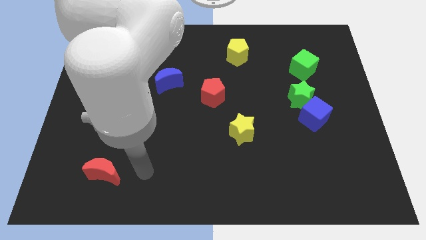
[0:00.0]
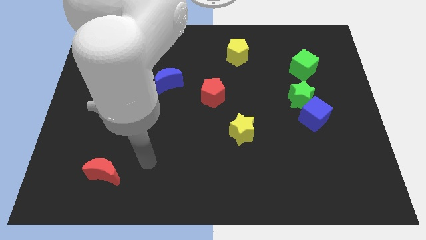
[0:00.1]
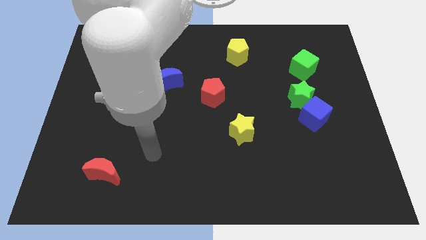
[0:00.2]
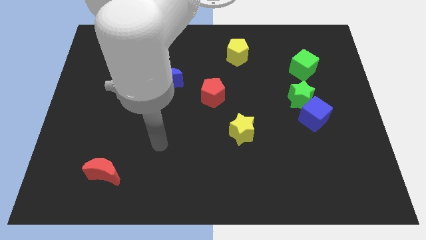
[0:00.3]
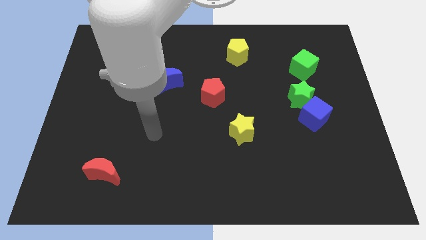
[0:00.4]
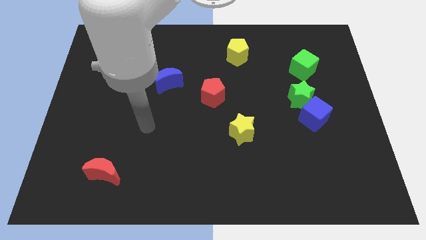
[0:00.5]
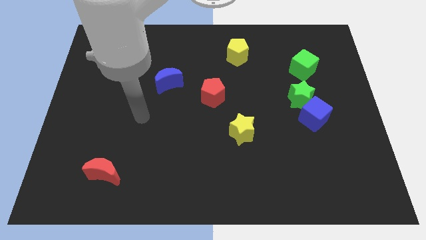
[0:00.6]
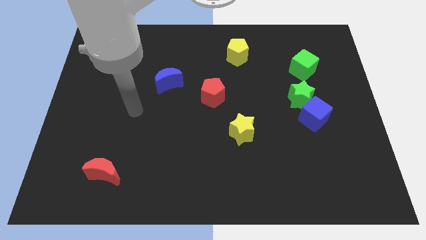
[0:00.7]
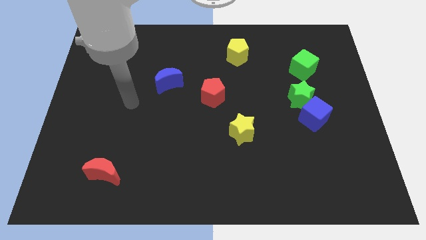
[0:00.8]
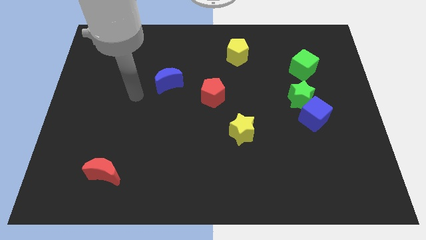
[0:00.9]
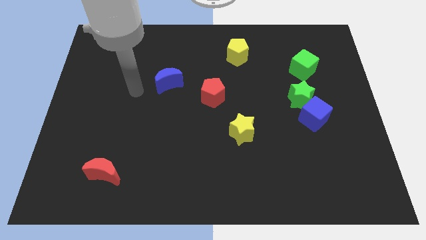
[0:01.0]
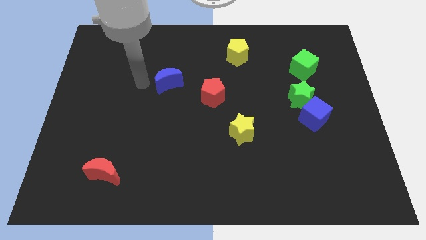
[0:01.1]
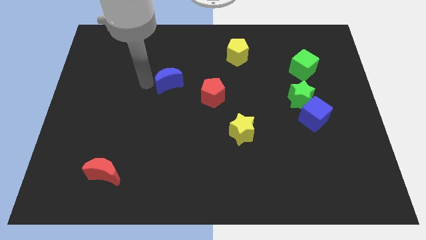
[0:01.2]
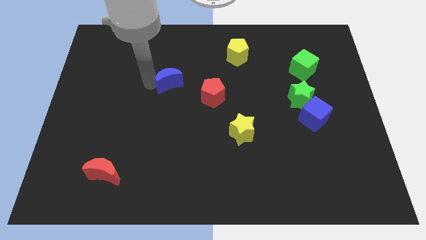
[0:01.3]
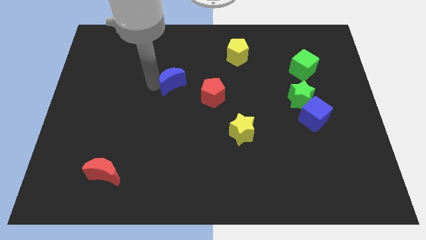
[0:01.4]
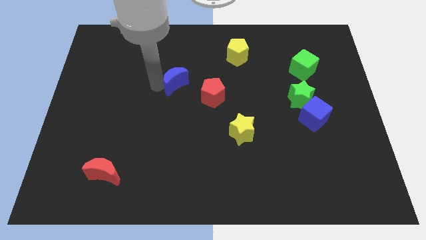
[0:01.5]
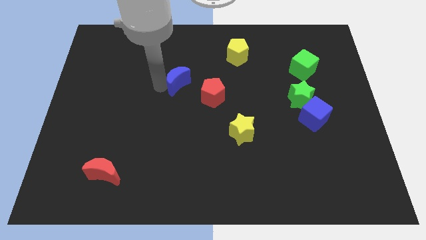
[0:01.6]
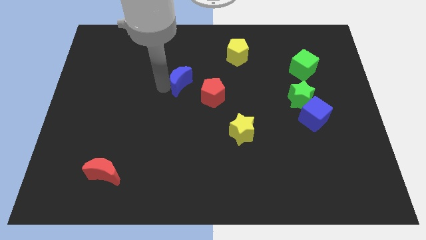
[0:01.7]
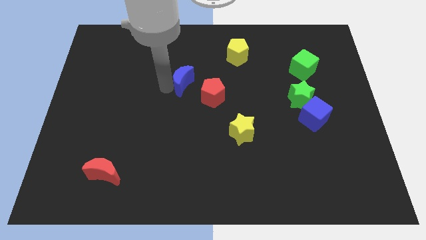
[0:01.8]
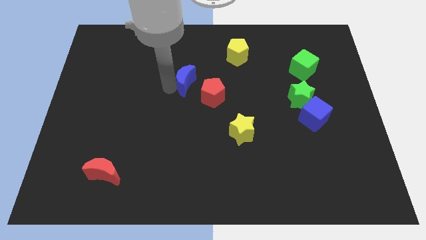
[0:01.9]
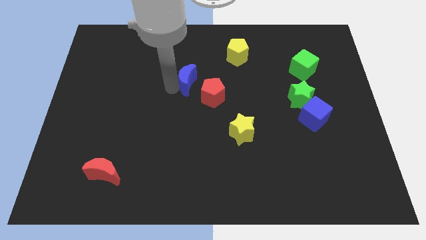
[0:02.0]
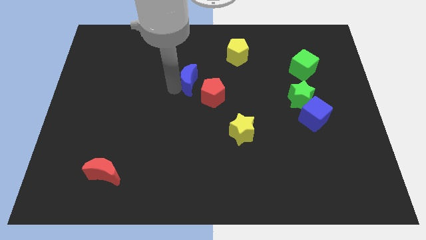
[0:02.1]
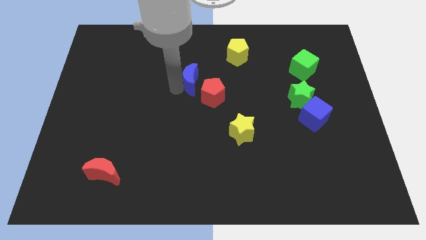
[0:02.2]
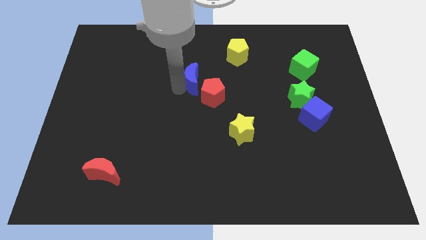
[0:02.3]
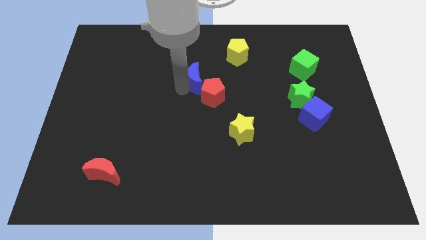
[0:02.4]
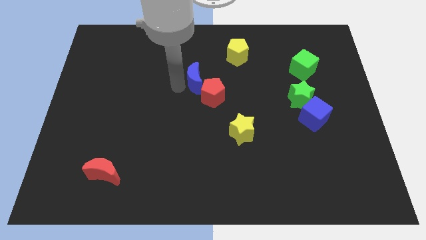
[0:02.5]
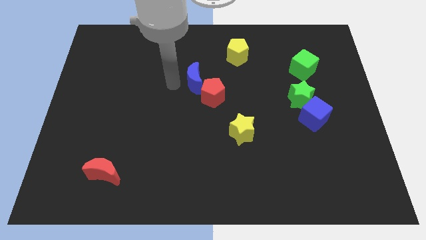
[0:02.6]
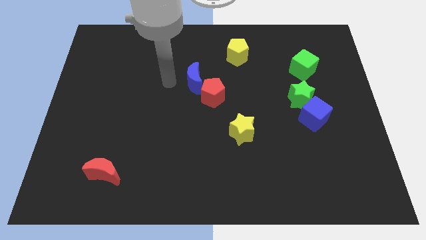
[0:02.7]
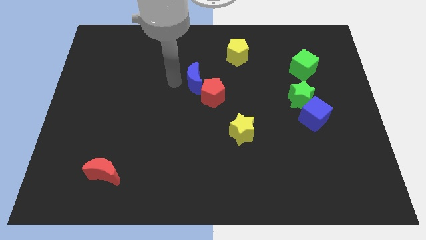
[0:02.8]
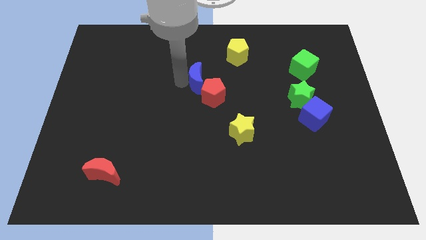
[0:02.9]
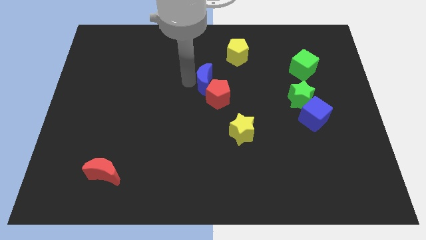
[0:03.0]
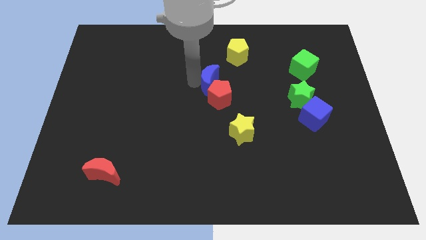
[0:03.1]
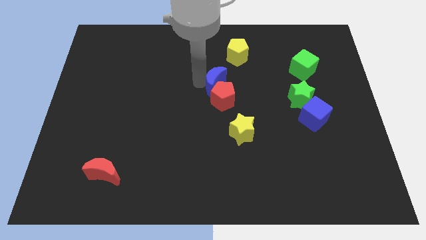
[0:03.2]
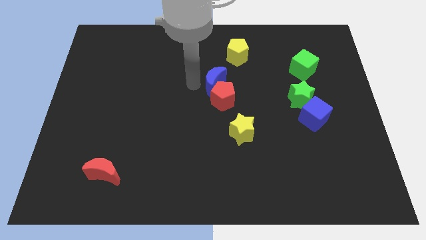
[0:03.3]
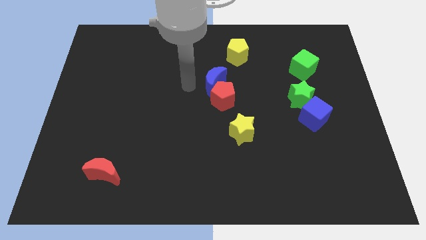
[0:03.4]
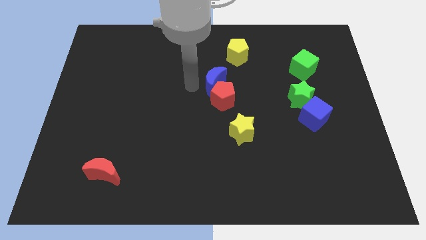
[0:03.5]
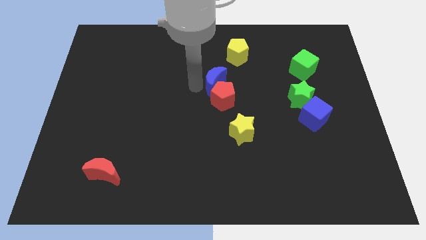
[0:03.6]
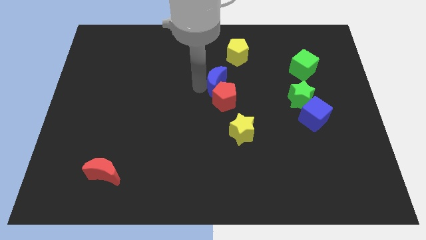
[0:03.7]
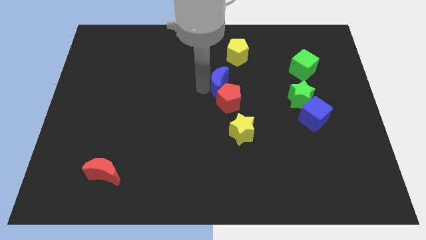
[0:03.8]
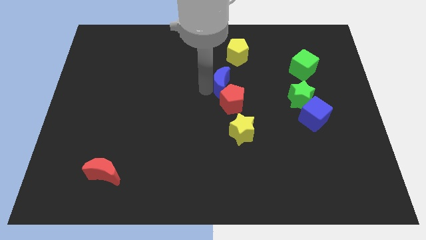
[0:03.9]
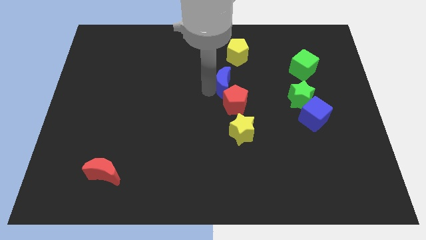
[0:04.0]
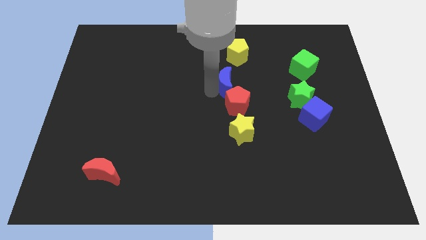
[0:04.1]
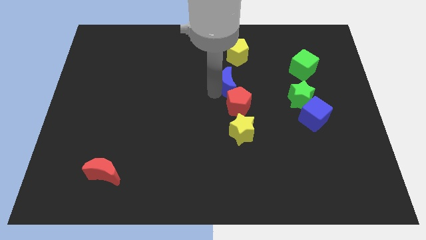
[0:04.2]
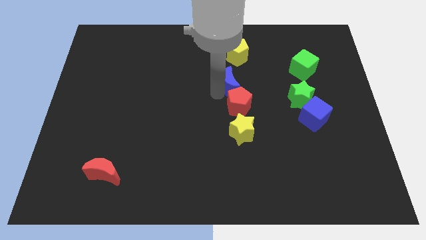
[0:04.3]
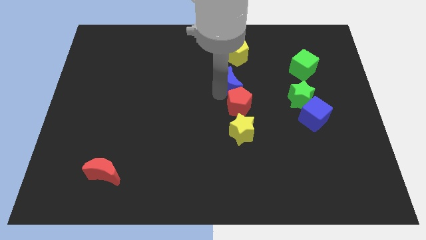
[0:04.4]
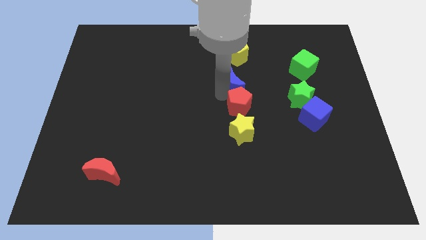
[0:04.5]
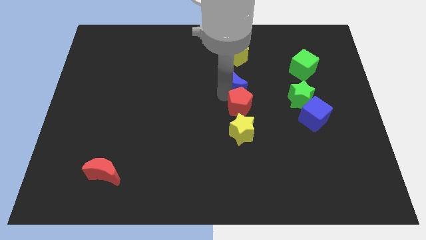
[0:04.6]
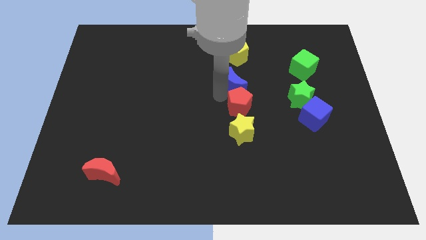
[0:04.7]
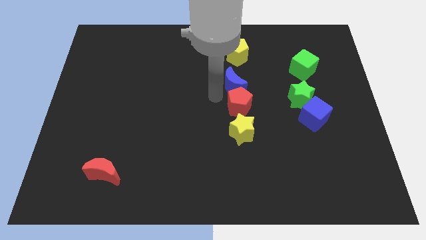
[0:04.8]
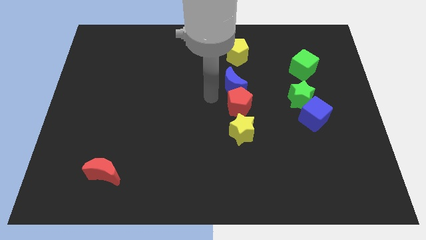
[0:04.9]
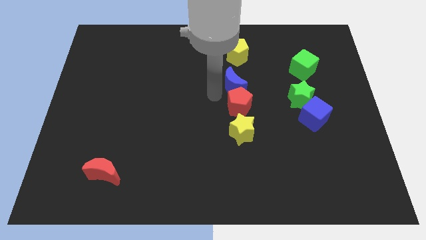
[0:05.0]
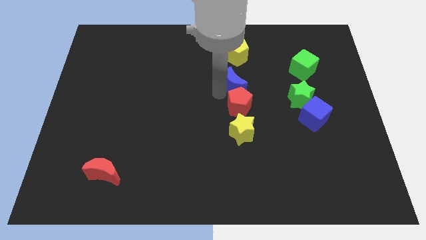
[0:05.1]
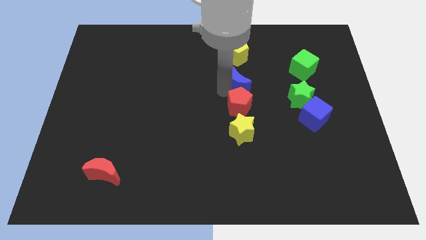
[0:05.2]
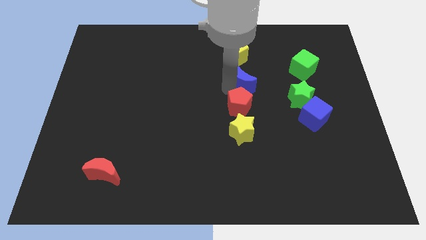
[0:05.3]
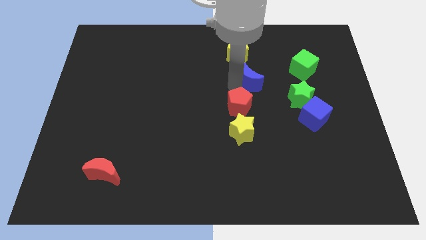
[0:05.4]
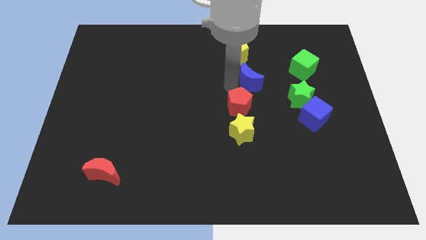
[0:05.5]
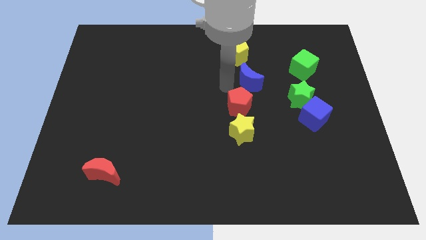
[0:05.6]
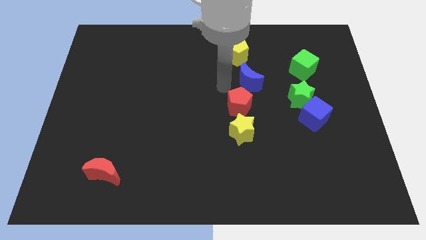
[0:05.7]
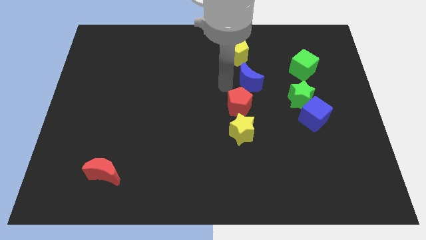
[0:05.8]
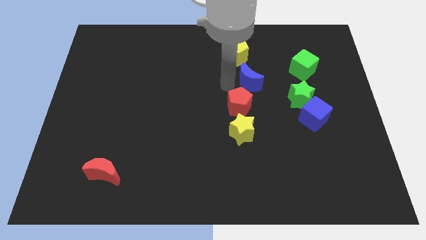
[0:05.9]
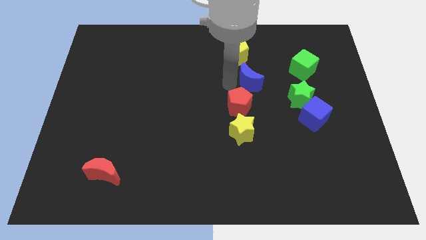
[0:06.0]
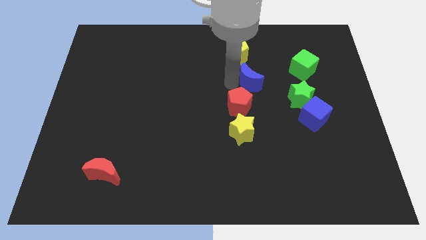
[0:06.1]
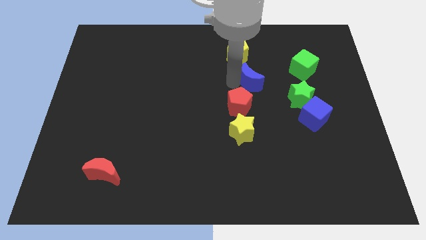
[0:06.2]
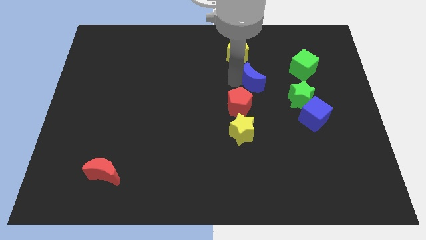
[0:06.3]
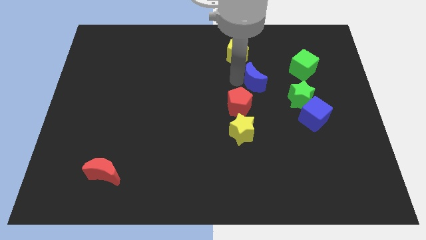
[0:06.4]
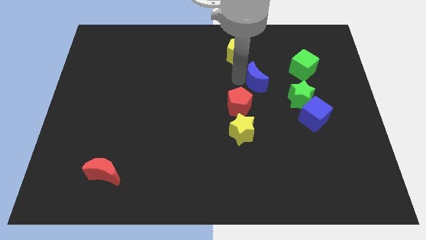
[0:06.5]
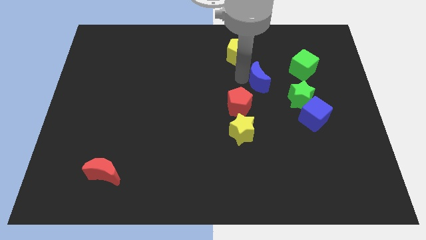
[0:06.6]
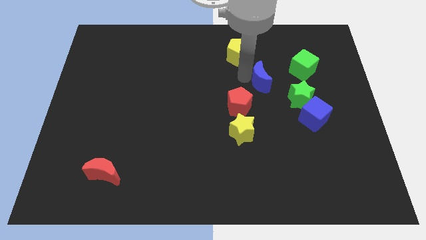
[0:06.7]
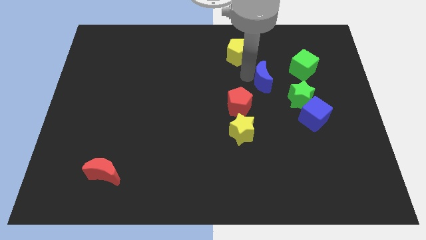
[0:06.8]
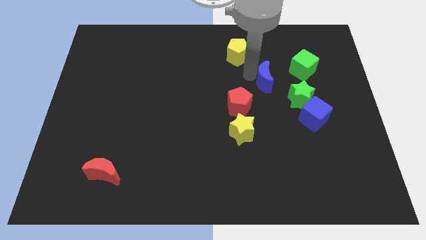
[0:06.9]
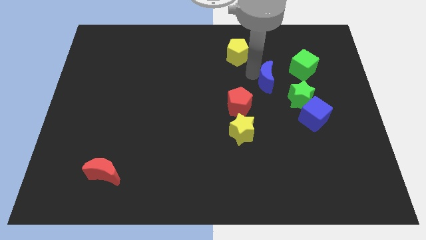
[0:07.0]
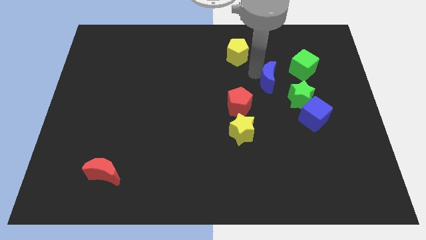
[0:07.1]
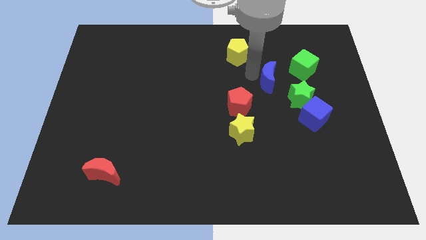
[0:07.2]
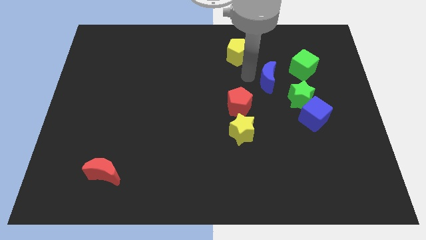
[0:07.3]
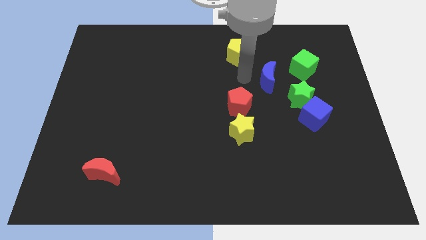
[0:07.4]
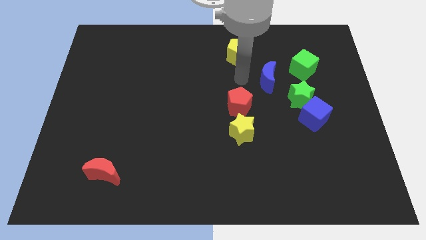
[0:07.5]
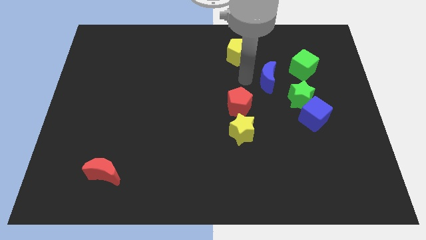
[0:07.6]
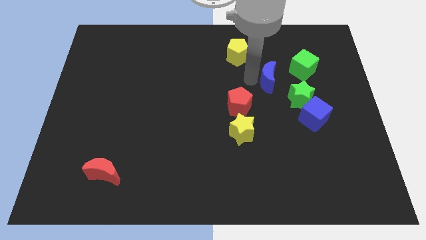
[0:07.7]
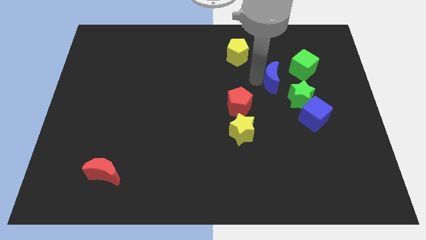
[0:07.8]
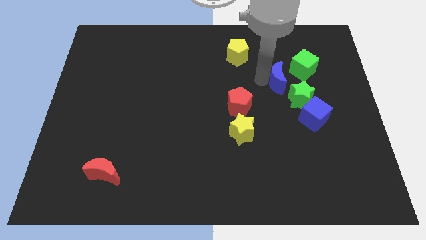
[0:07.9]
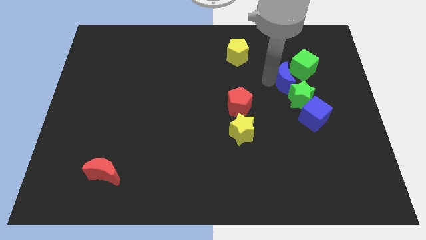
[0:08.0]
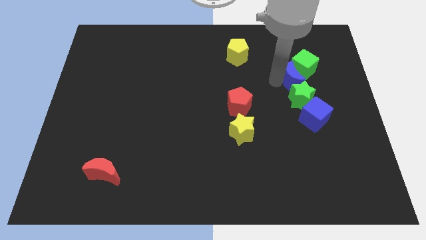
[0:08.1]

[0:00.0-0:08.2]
put the blue moon to the top of the blue cube
